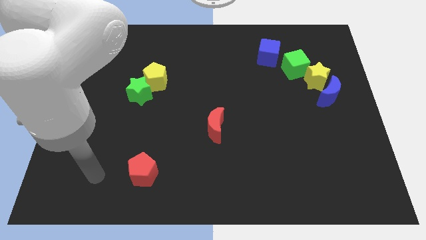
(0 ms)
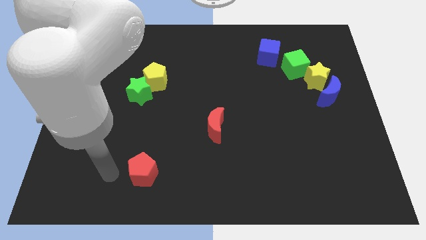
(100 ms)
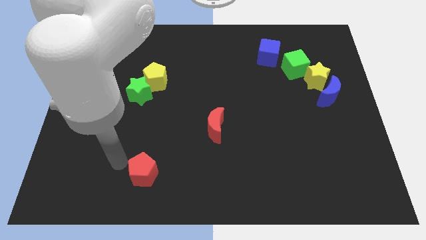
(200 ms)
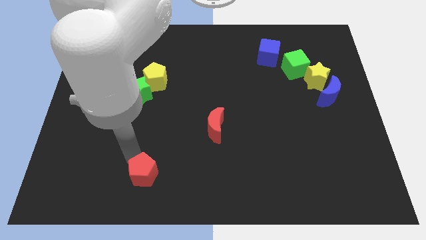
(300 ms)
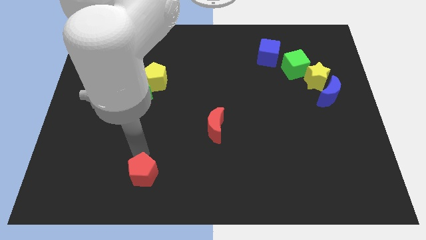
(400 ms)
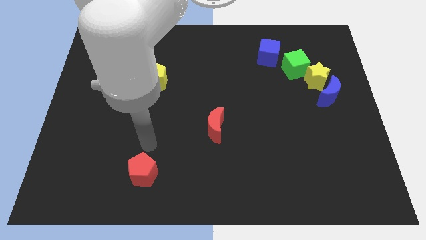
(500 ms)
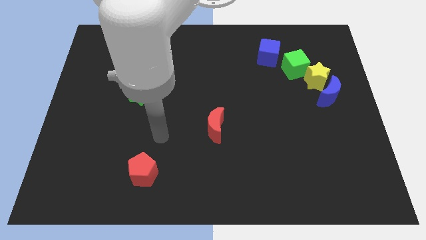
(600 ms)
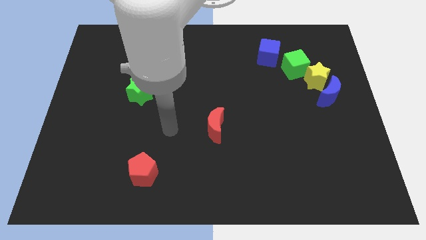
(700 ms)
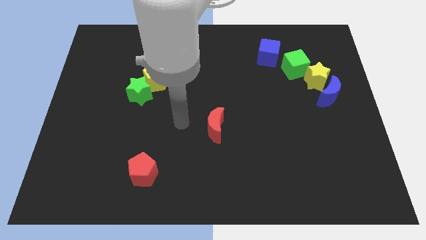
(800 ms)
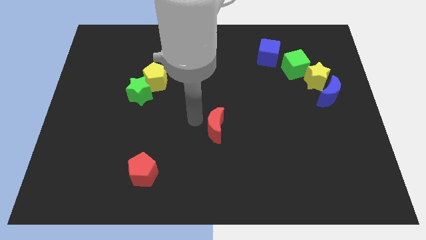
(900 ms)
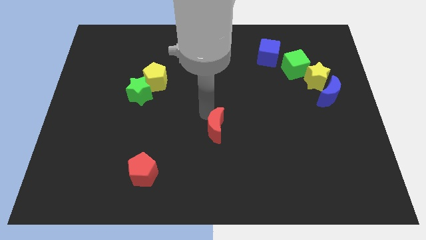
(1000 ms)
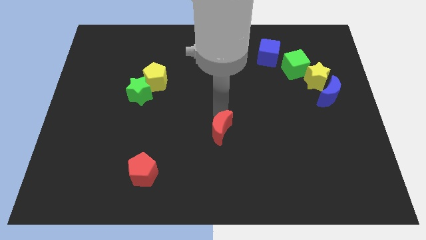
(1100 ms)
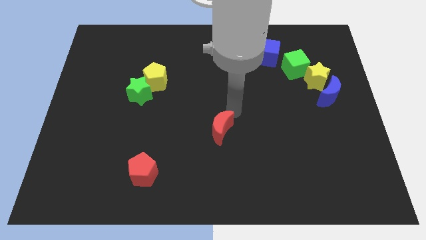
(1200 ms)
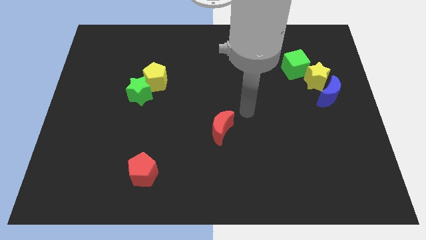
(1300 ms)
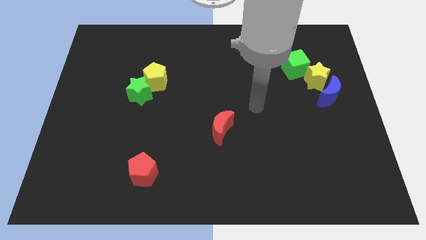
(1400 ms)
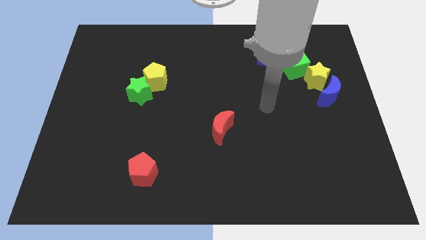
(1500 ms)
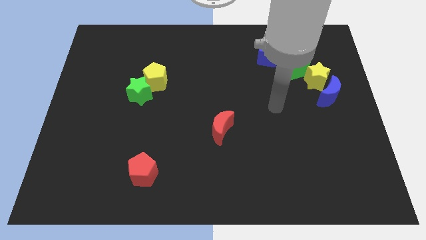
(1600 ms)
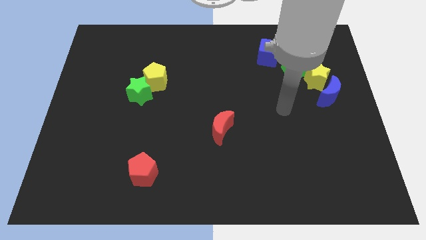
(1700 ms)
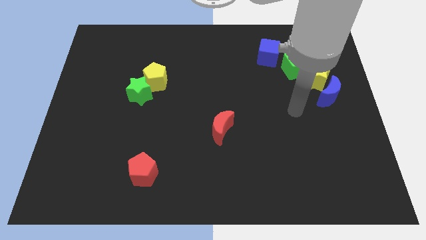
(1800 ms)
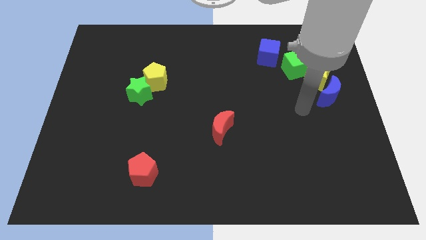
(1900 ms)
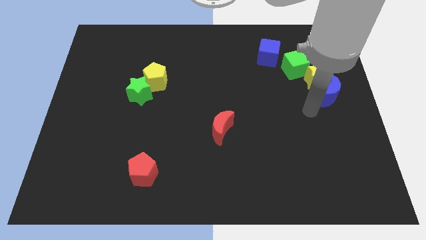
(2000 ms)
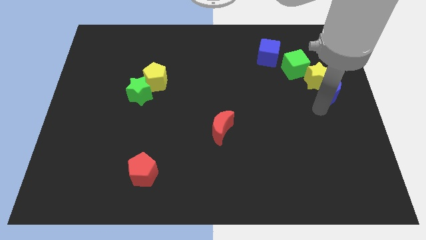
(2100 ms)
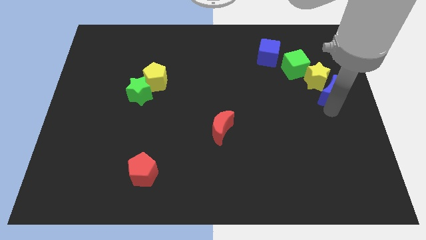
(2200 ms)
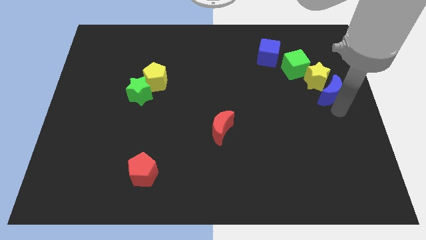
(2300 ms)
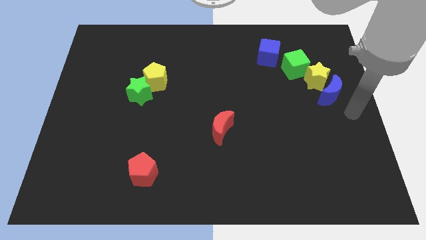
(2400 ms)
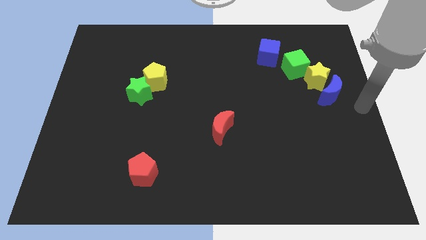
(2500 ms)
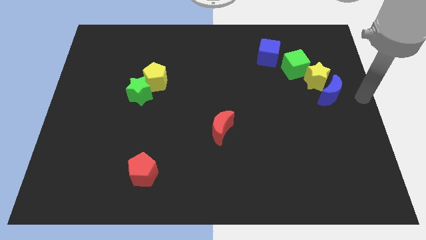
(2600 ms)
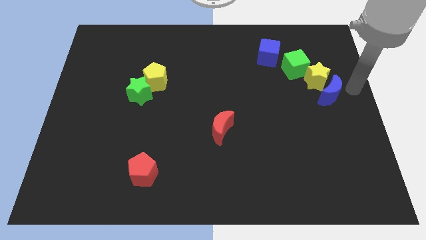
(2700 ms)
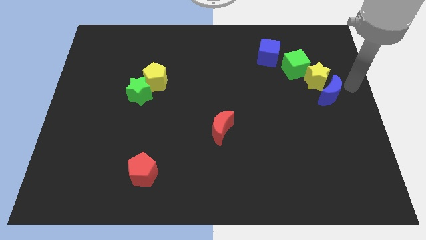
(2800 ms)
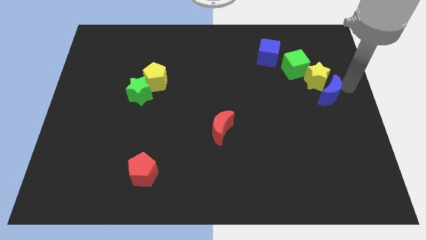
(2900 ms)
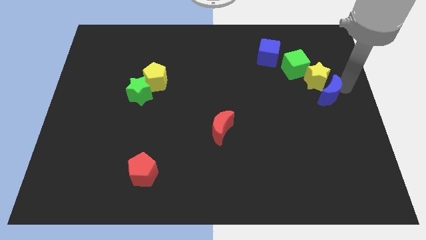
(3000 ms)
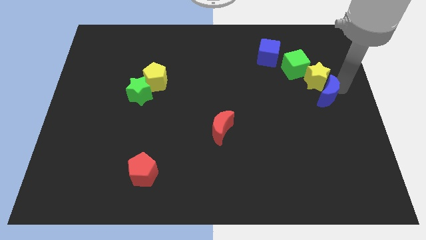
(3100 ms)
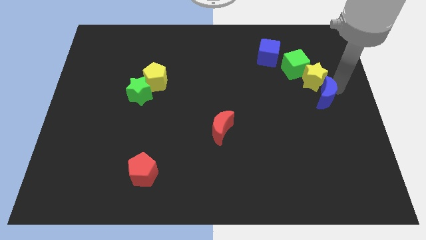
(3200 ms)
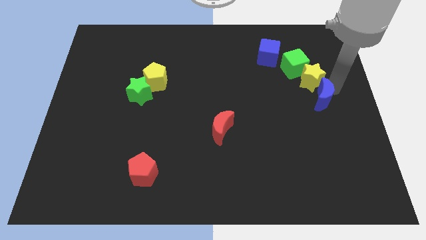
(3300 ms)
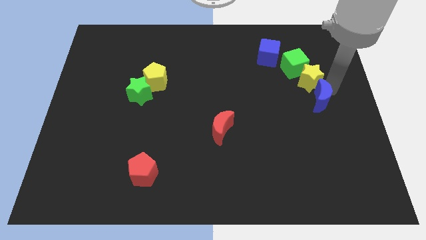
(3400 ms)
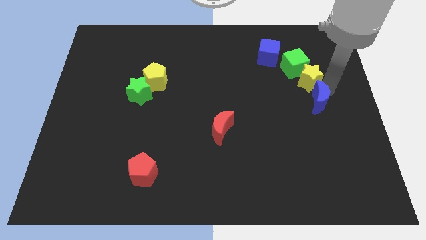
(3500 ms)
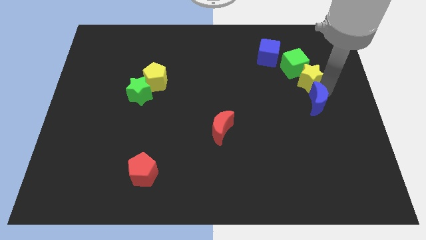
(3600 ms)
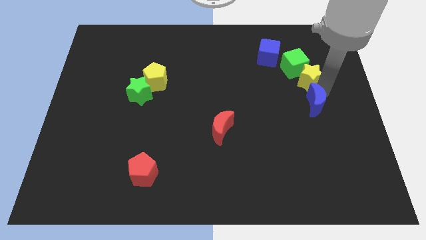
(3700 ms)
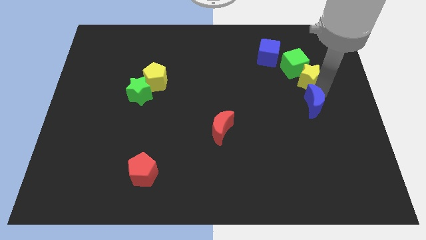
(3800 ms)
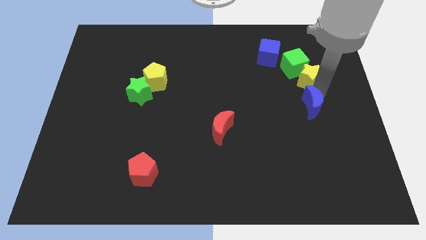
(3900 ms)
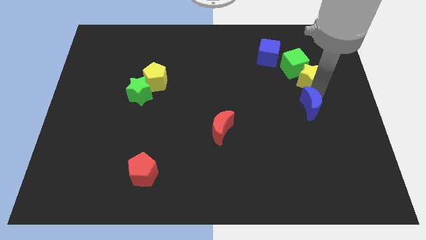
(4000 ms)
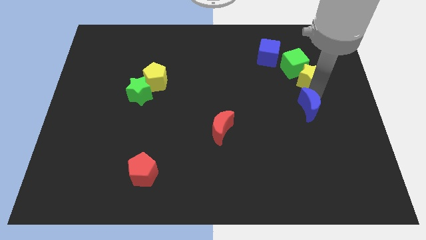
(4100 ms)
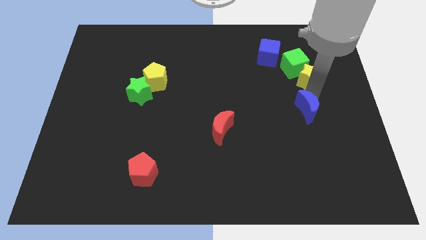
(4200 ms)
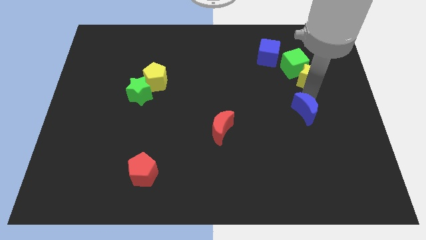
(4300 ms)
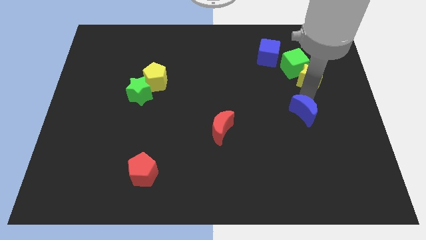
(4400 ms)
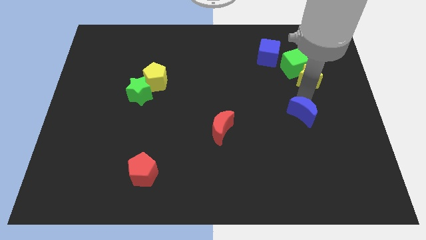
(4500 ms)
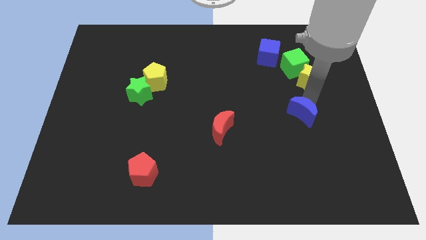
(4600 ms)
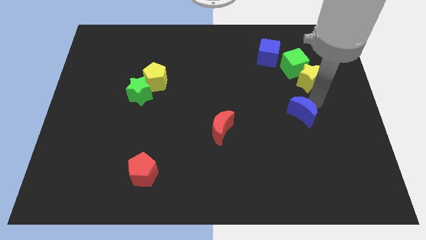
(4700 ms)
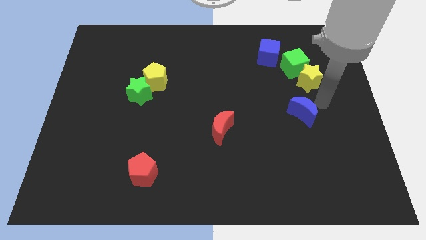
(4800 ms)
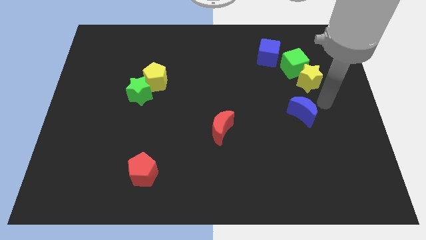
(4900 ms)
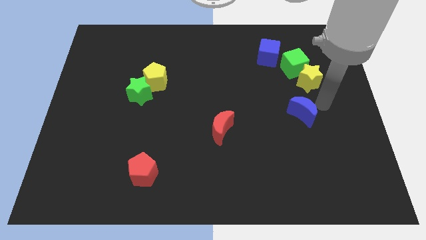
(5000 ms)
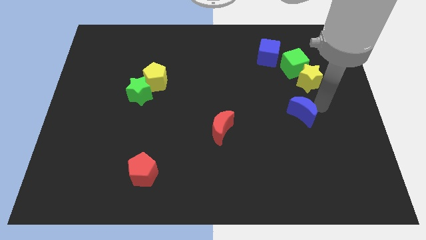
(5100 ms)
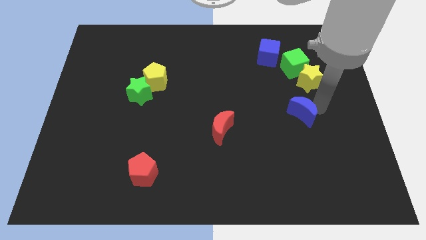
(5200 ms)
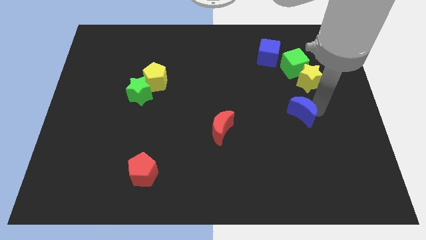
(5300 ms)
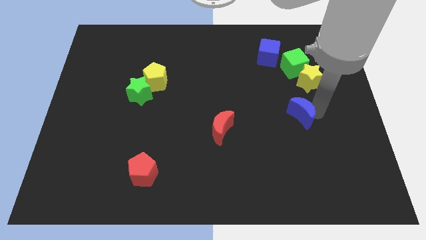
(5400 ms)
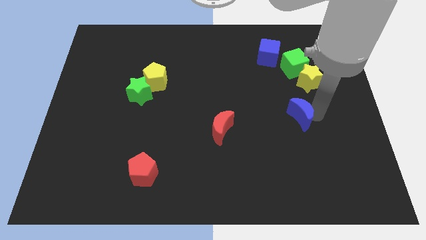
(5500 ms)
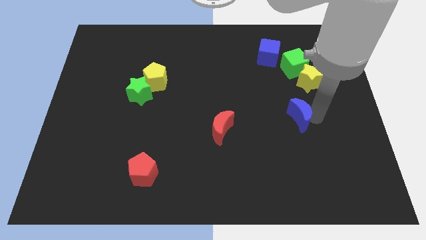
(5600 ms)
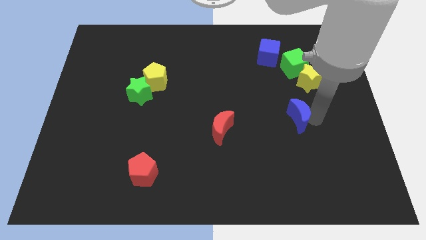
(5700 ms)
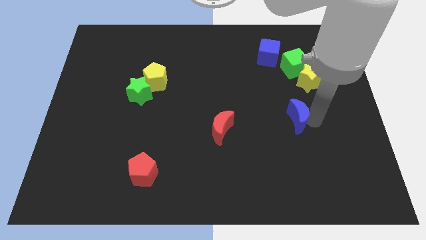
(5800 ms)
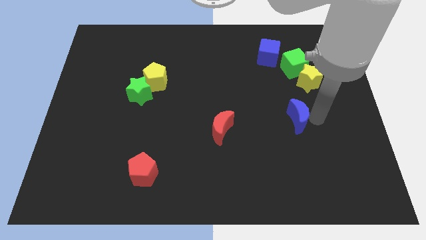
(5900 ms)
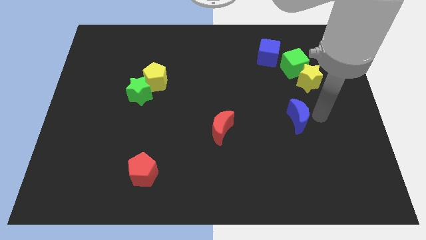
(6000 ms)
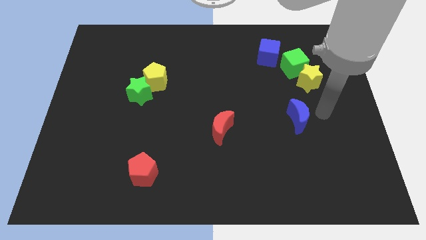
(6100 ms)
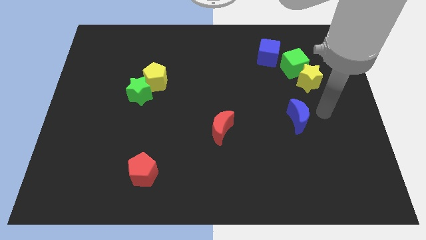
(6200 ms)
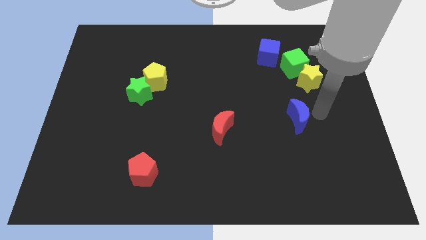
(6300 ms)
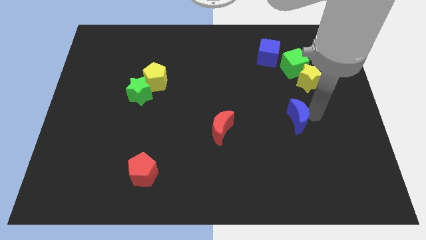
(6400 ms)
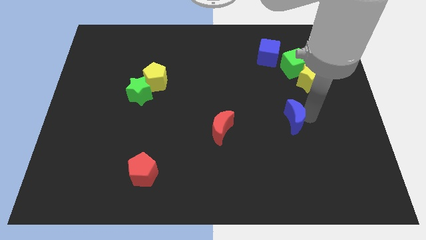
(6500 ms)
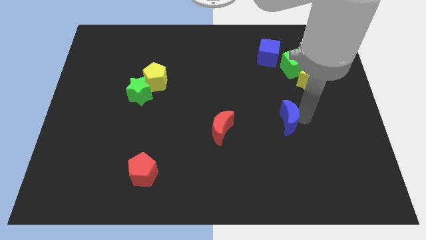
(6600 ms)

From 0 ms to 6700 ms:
slide the blue moon right of the red moon
